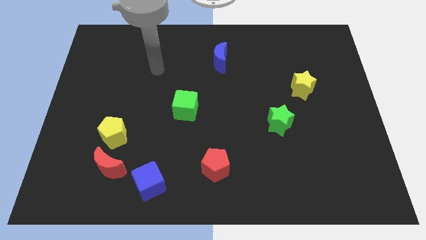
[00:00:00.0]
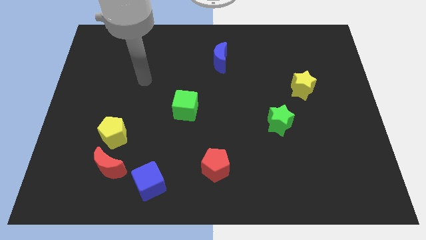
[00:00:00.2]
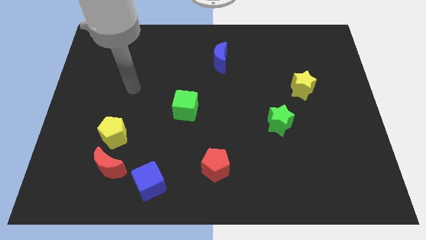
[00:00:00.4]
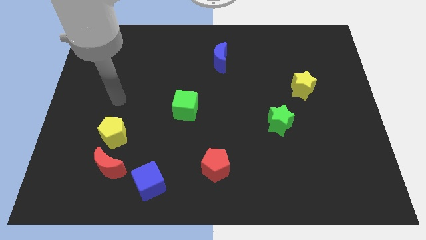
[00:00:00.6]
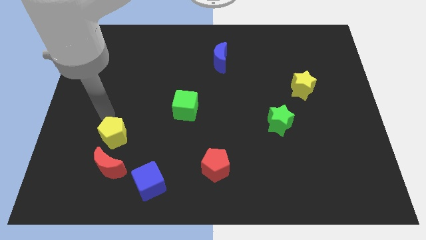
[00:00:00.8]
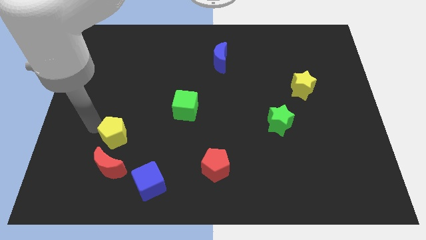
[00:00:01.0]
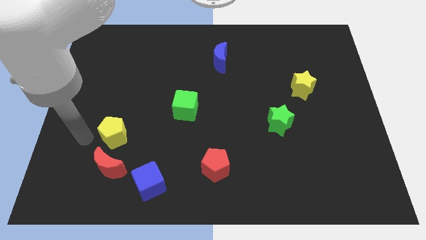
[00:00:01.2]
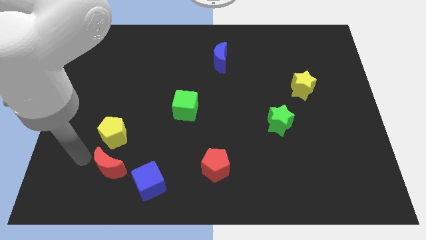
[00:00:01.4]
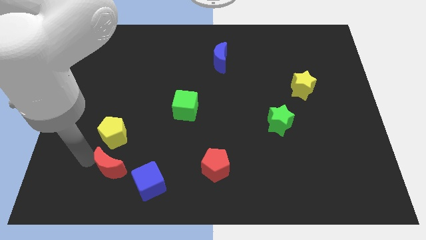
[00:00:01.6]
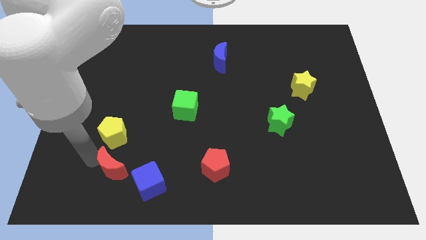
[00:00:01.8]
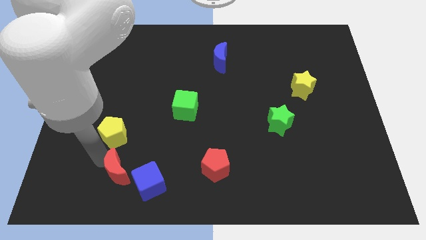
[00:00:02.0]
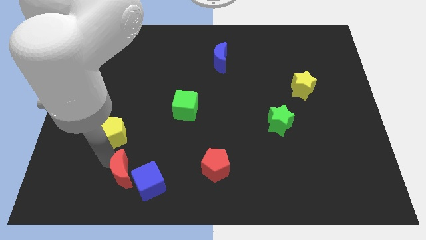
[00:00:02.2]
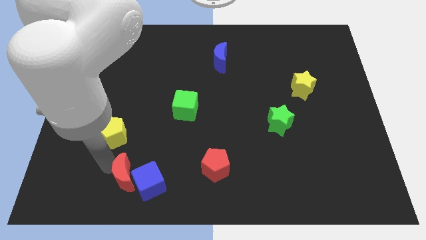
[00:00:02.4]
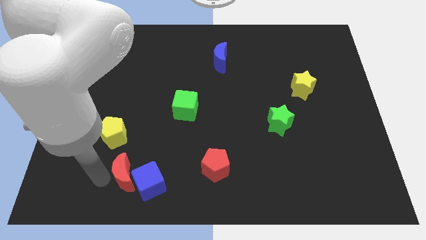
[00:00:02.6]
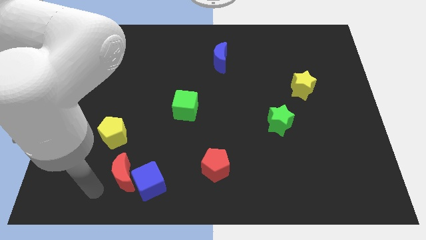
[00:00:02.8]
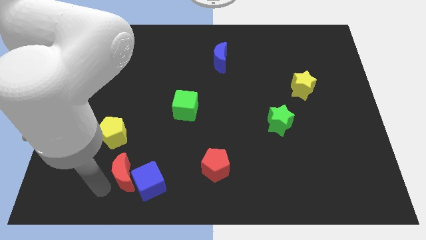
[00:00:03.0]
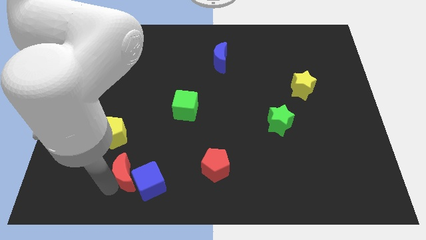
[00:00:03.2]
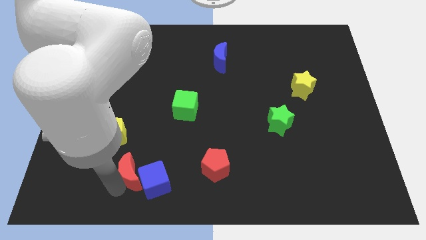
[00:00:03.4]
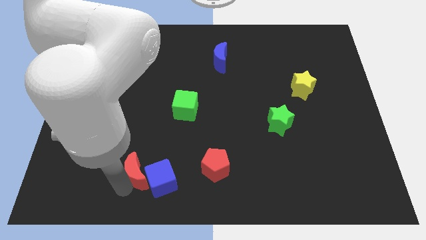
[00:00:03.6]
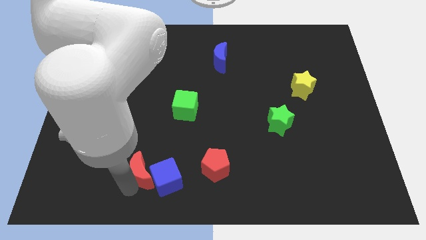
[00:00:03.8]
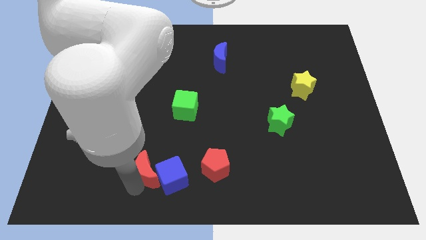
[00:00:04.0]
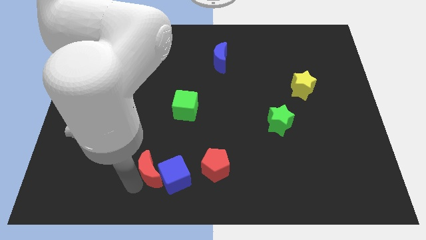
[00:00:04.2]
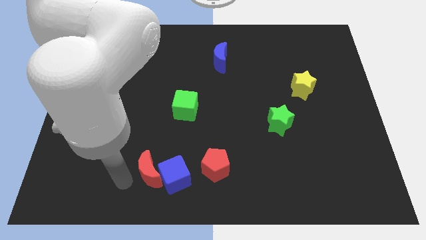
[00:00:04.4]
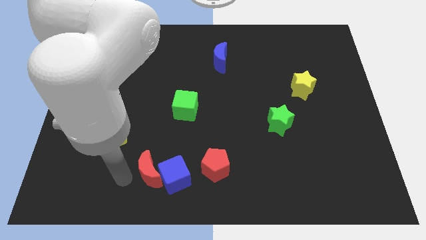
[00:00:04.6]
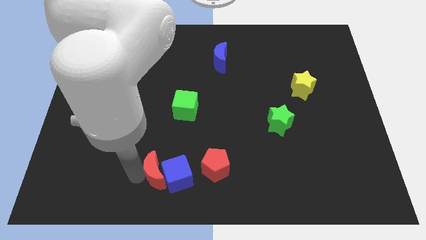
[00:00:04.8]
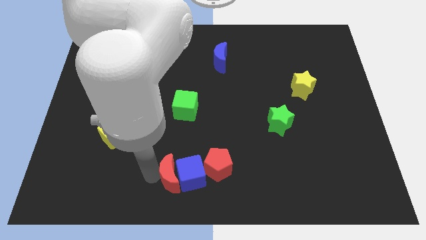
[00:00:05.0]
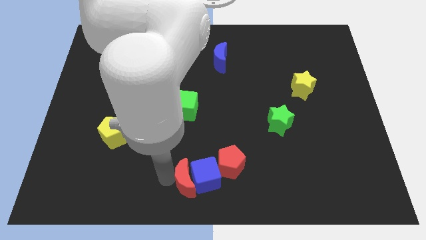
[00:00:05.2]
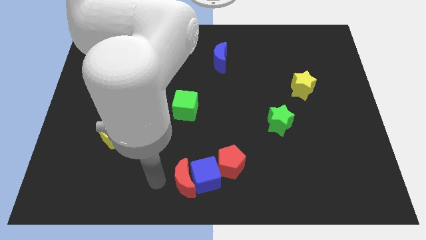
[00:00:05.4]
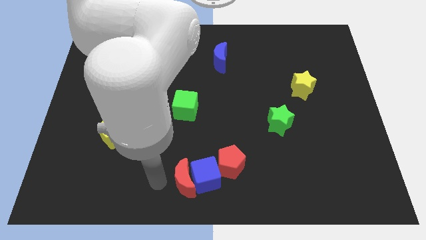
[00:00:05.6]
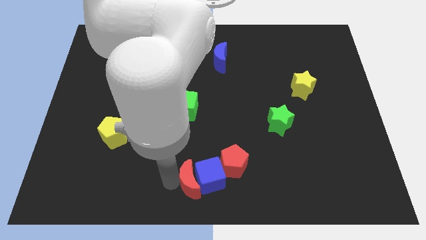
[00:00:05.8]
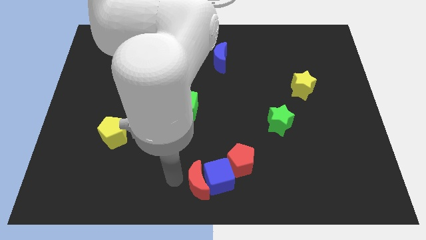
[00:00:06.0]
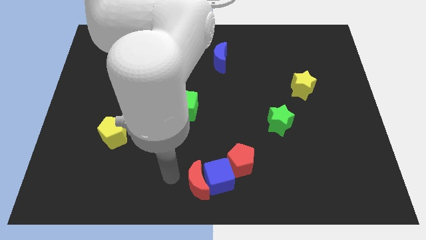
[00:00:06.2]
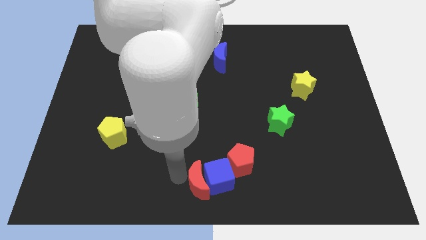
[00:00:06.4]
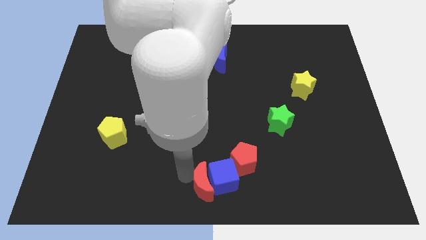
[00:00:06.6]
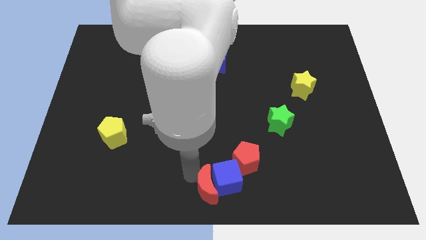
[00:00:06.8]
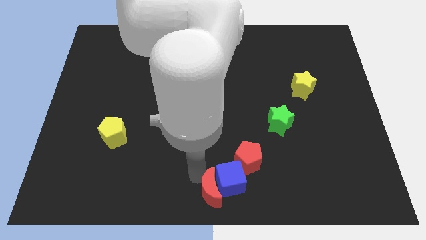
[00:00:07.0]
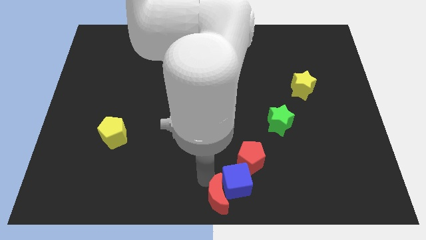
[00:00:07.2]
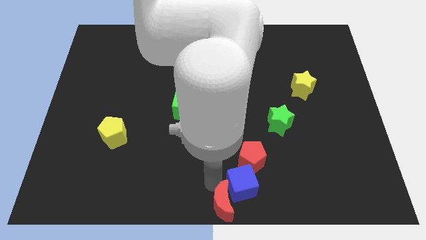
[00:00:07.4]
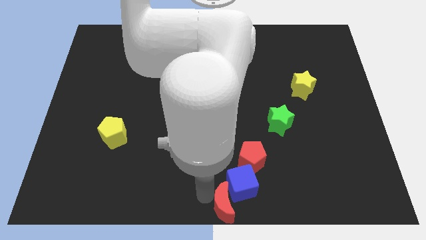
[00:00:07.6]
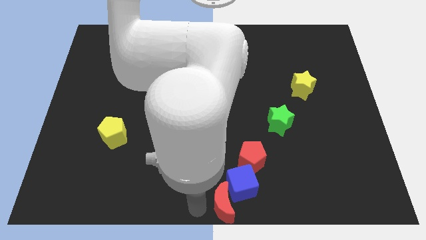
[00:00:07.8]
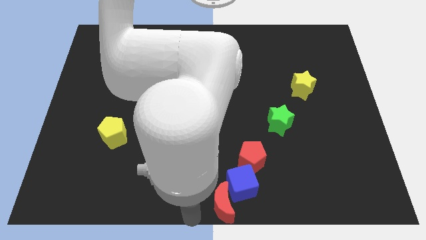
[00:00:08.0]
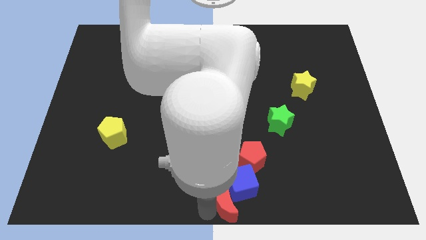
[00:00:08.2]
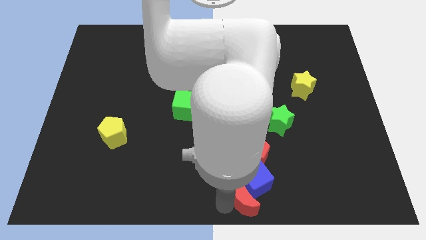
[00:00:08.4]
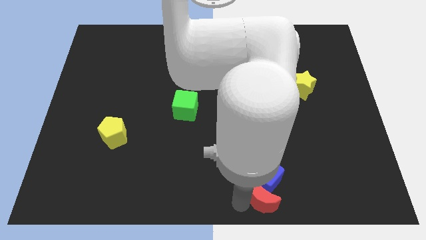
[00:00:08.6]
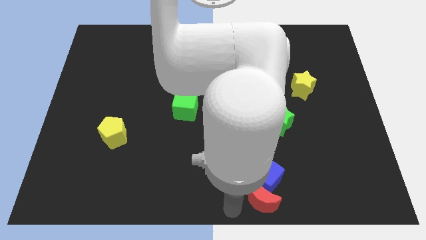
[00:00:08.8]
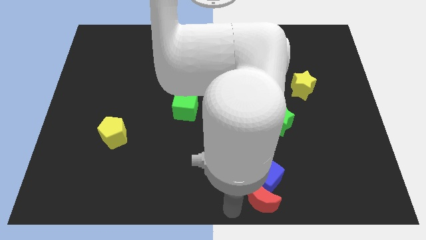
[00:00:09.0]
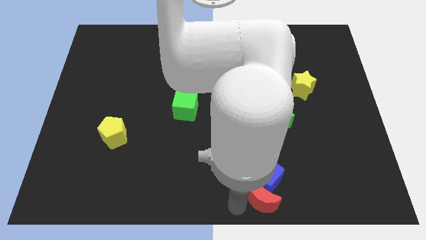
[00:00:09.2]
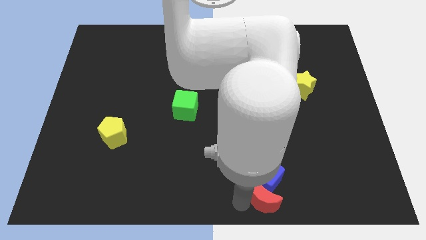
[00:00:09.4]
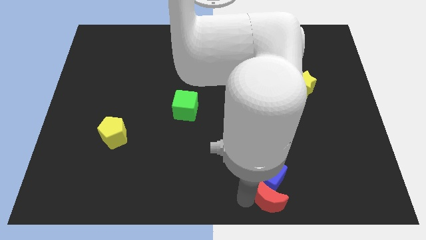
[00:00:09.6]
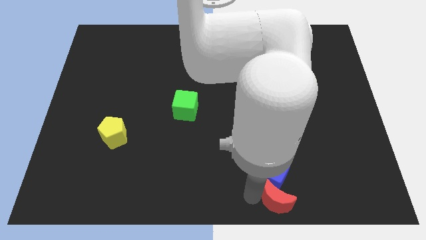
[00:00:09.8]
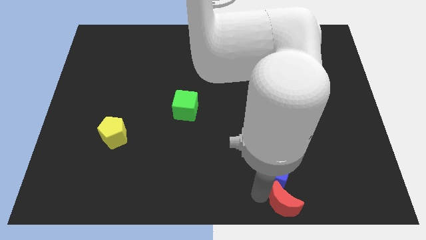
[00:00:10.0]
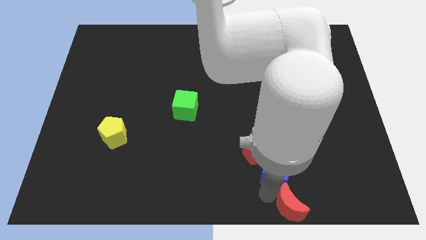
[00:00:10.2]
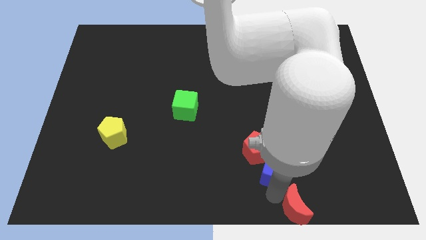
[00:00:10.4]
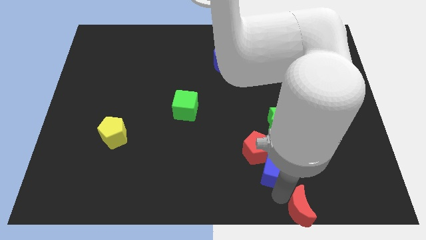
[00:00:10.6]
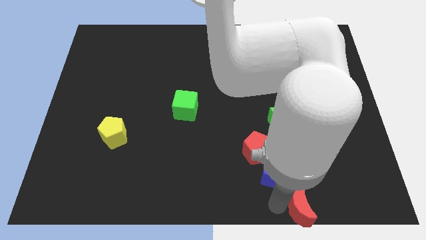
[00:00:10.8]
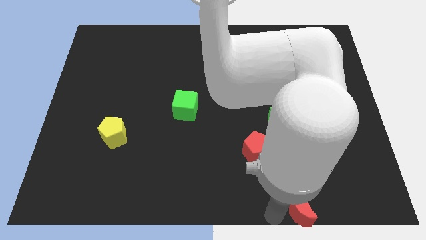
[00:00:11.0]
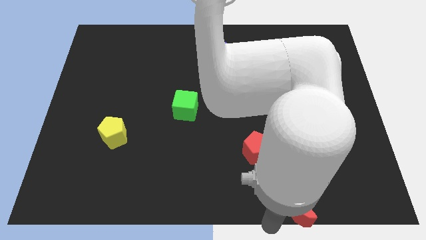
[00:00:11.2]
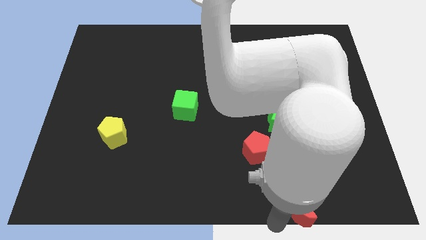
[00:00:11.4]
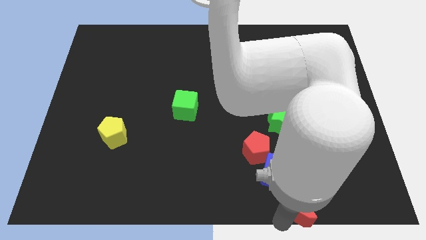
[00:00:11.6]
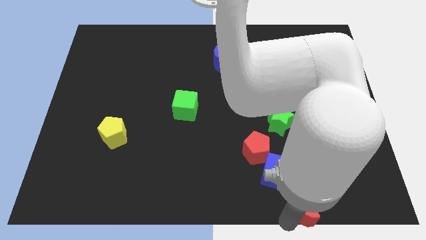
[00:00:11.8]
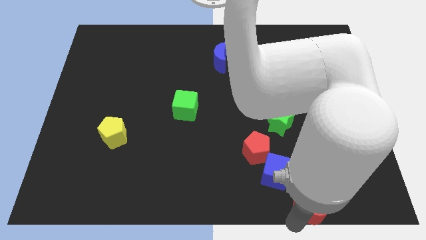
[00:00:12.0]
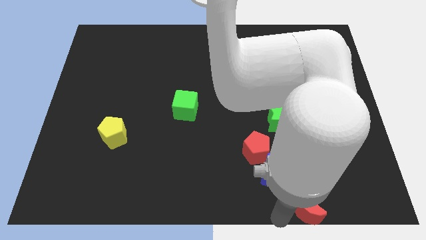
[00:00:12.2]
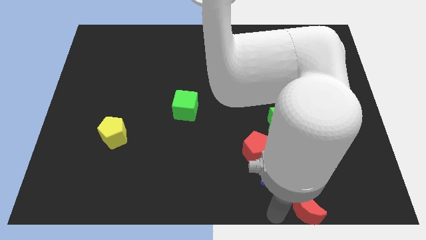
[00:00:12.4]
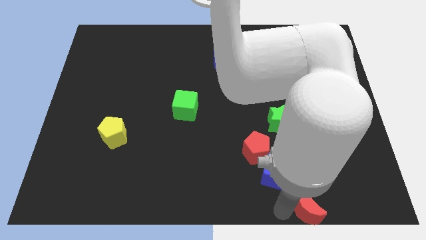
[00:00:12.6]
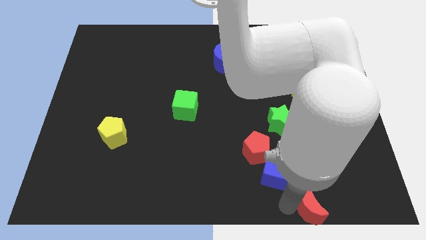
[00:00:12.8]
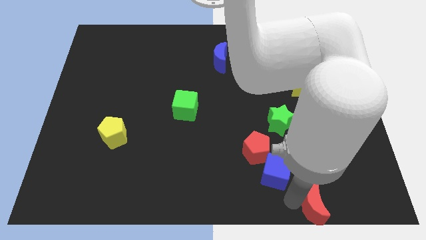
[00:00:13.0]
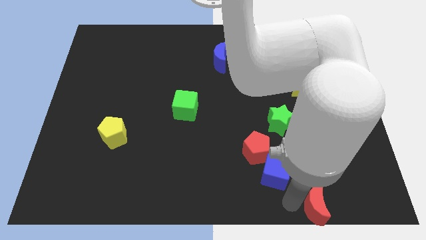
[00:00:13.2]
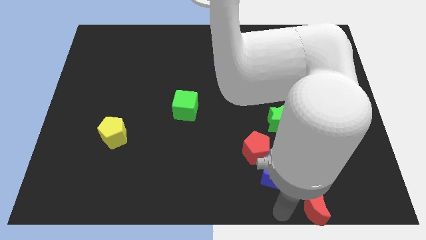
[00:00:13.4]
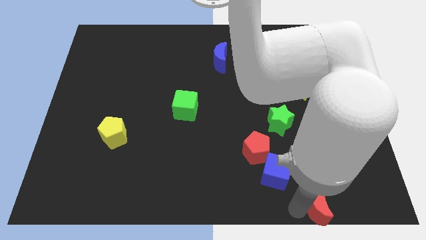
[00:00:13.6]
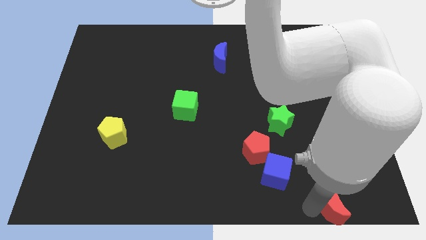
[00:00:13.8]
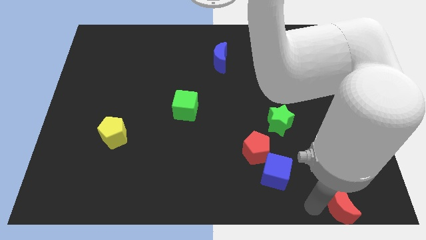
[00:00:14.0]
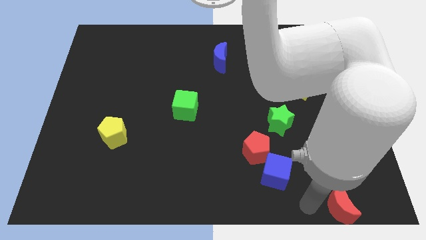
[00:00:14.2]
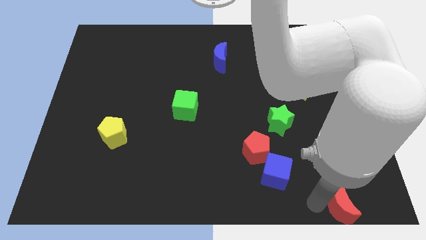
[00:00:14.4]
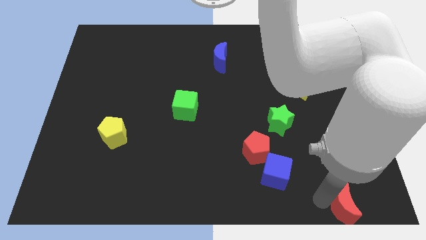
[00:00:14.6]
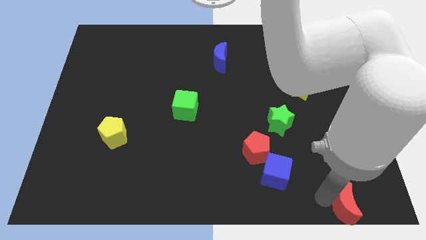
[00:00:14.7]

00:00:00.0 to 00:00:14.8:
move the red moon to the lower right corner

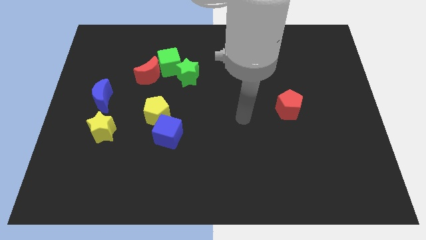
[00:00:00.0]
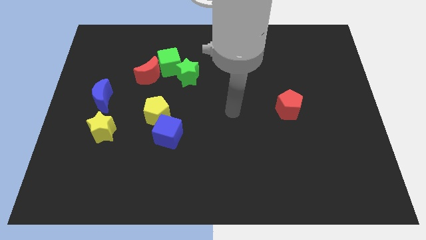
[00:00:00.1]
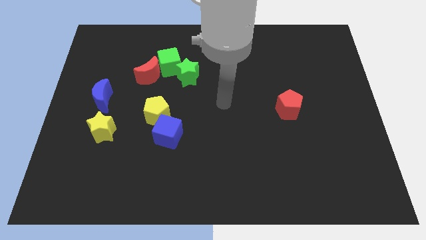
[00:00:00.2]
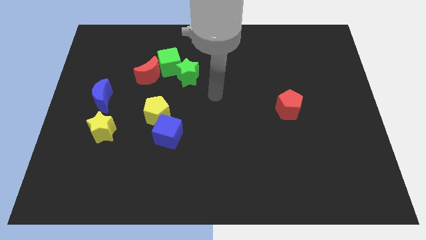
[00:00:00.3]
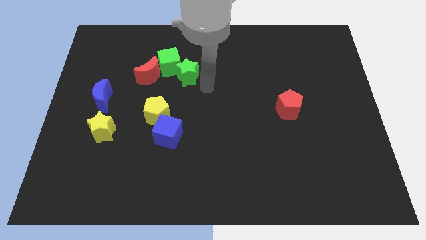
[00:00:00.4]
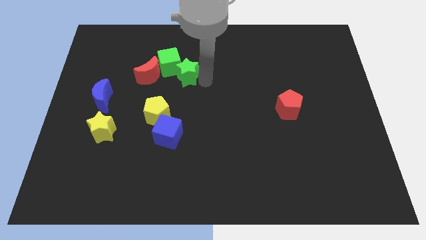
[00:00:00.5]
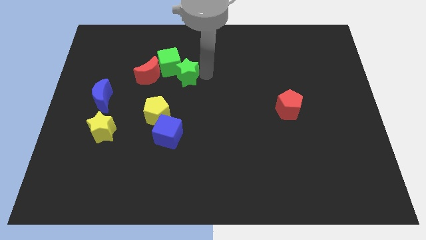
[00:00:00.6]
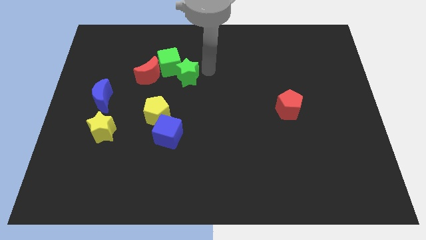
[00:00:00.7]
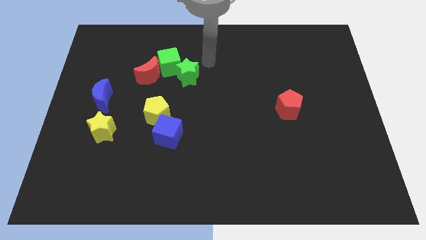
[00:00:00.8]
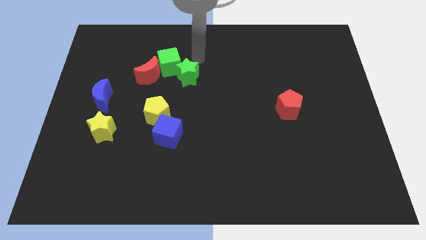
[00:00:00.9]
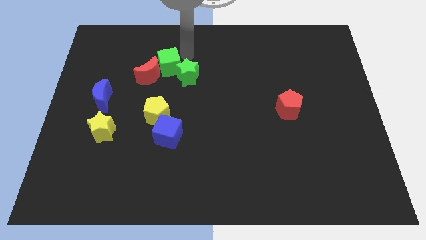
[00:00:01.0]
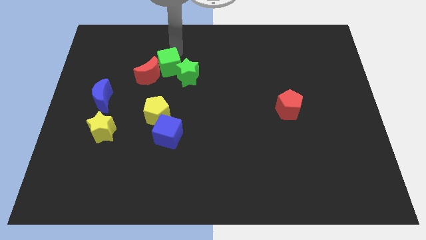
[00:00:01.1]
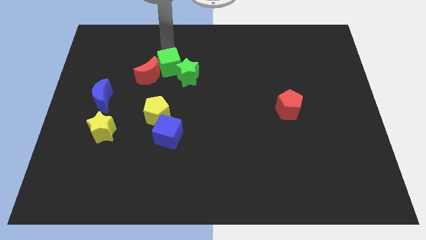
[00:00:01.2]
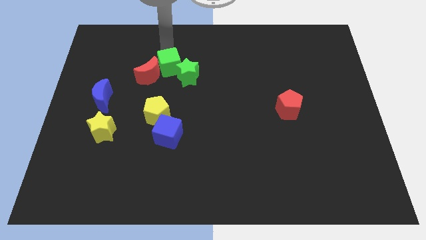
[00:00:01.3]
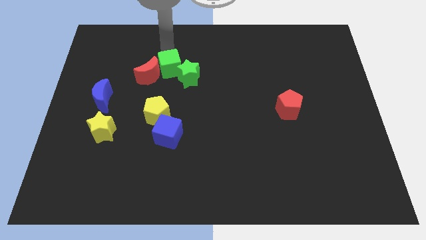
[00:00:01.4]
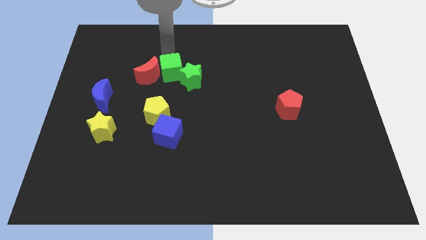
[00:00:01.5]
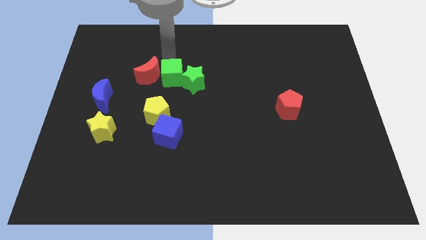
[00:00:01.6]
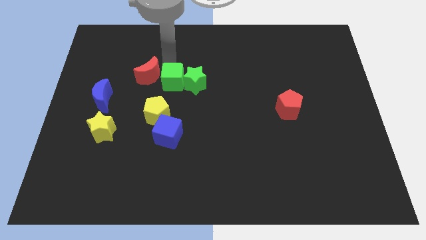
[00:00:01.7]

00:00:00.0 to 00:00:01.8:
move the green cube to the center
